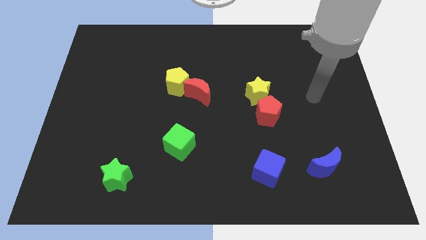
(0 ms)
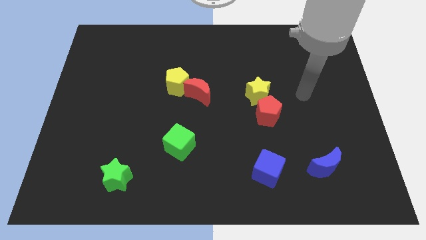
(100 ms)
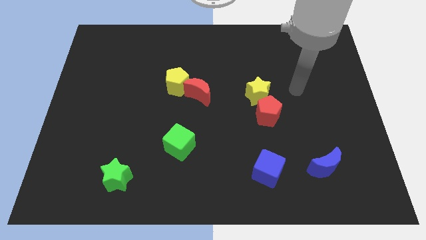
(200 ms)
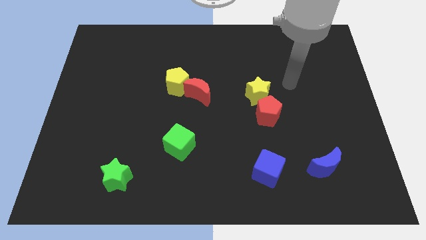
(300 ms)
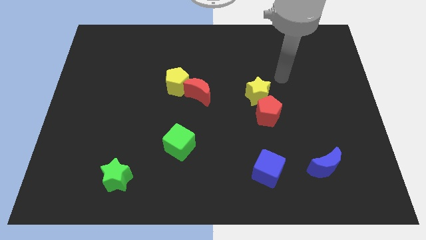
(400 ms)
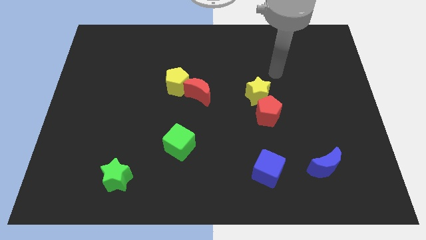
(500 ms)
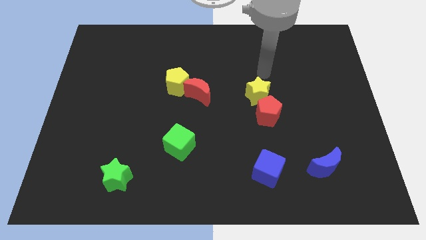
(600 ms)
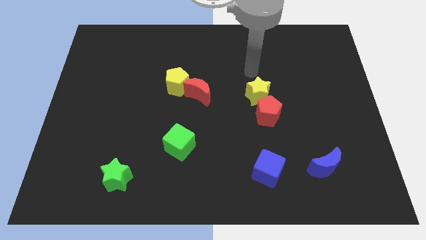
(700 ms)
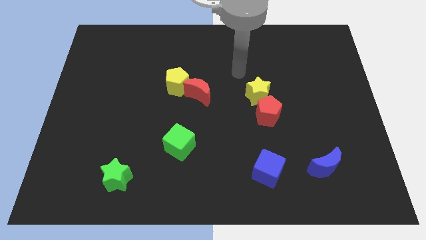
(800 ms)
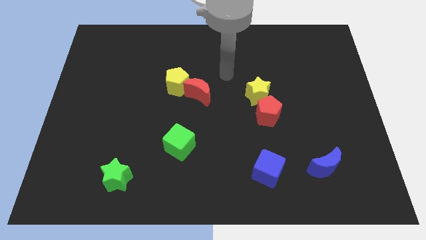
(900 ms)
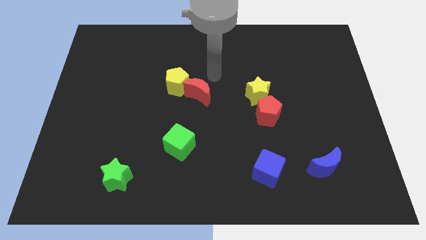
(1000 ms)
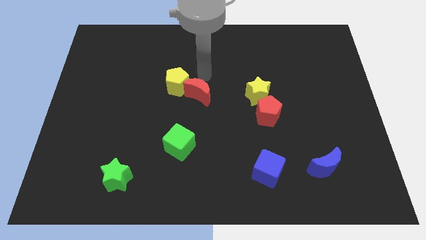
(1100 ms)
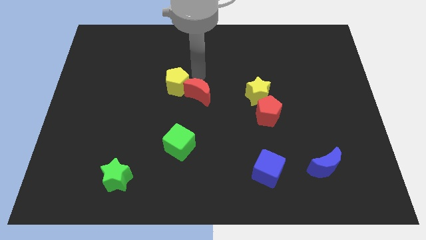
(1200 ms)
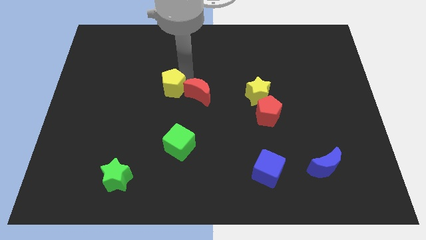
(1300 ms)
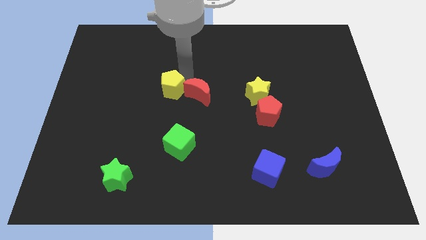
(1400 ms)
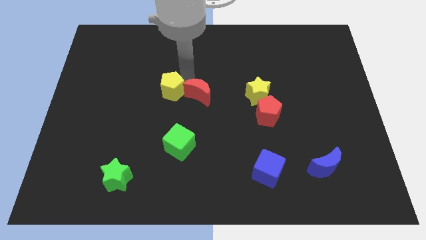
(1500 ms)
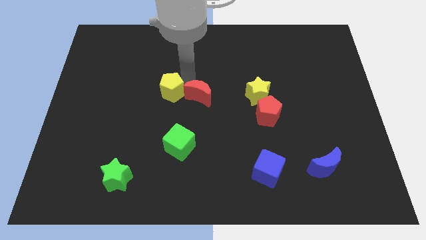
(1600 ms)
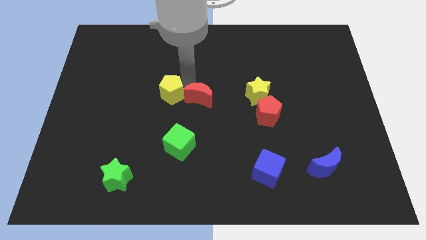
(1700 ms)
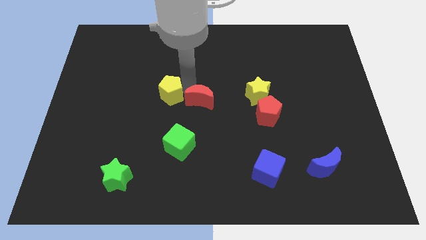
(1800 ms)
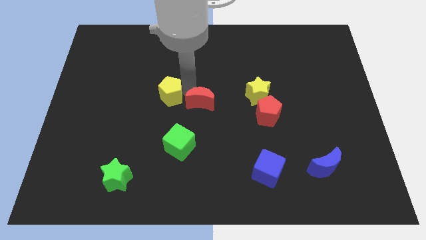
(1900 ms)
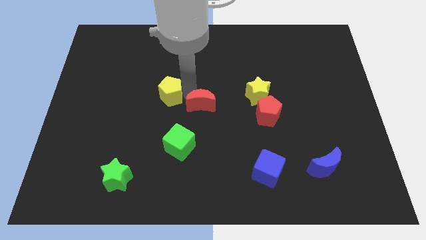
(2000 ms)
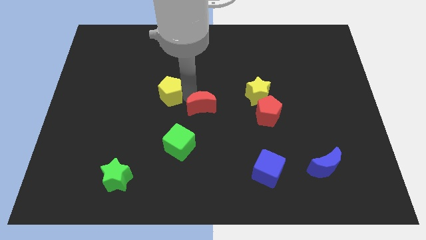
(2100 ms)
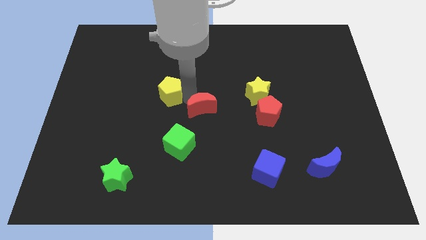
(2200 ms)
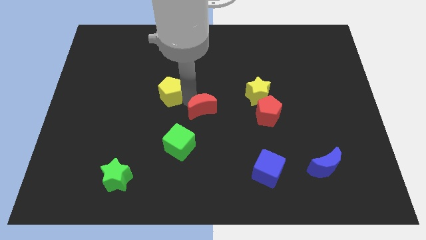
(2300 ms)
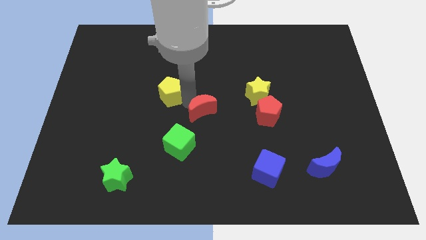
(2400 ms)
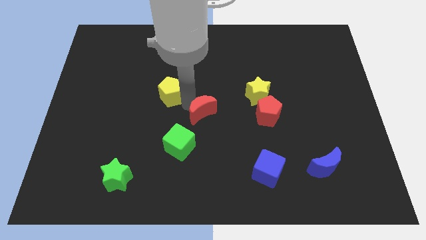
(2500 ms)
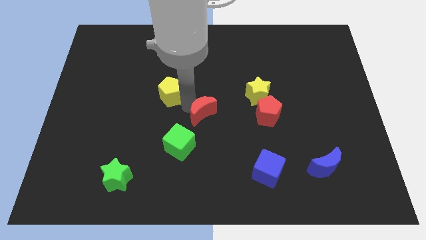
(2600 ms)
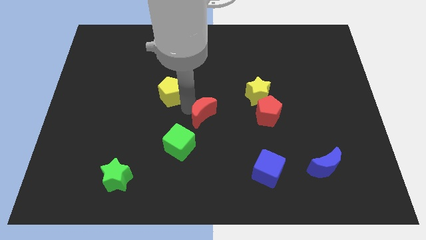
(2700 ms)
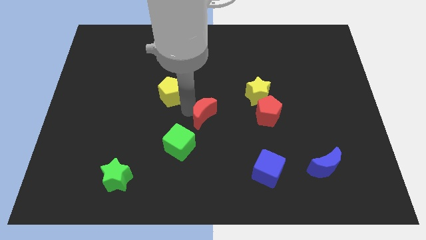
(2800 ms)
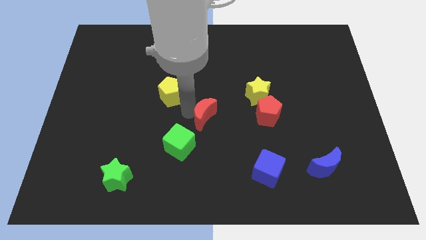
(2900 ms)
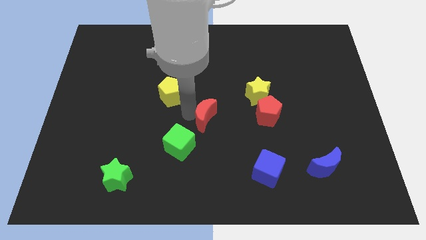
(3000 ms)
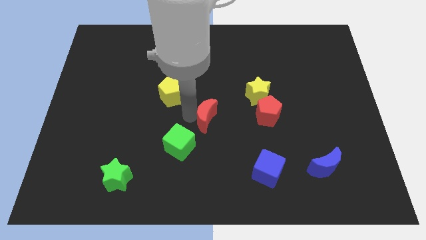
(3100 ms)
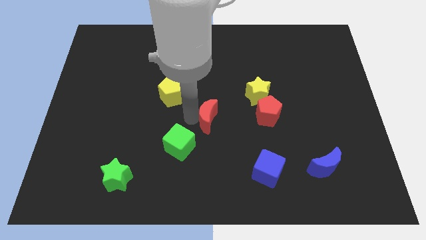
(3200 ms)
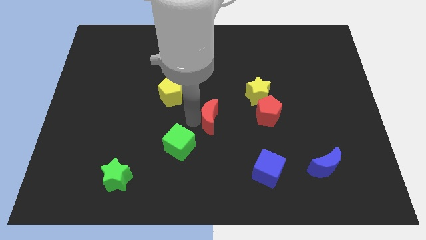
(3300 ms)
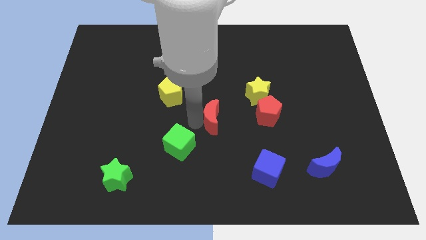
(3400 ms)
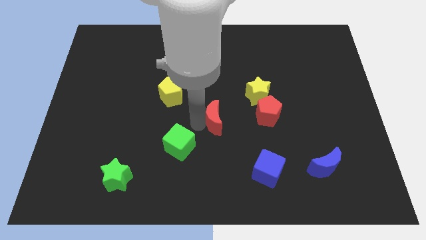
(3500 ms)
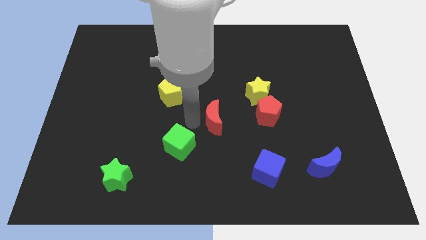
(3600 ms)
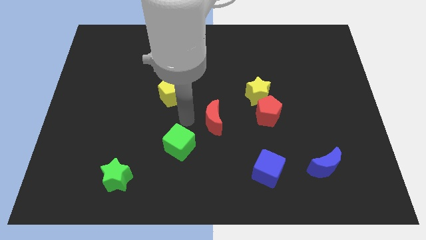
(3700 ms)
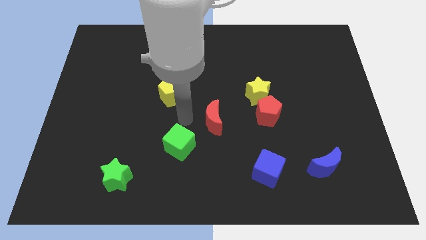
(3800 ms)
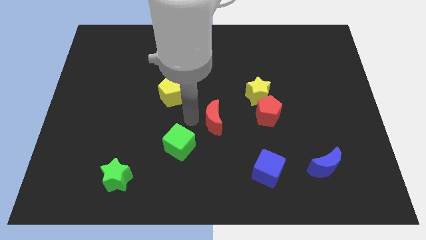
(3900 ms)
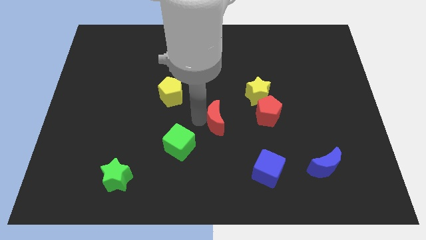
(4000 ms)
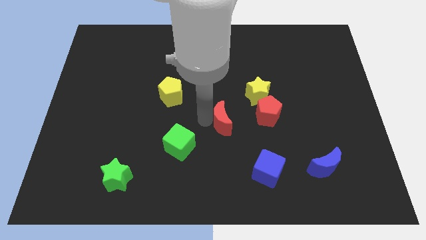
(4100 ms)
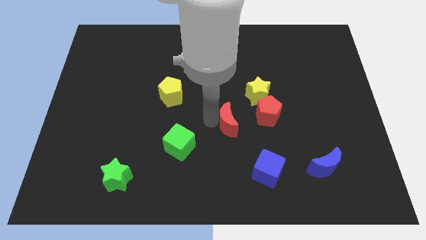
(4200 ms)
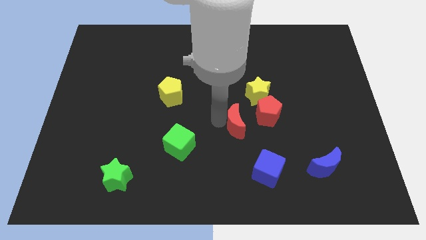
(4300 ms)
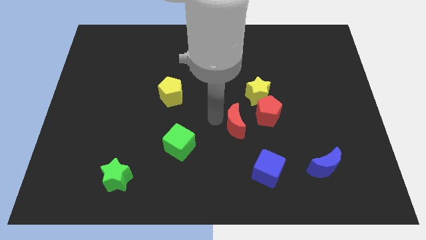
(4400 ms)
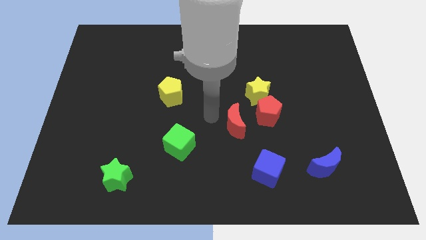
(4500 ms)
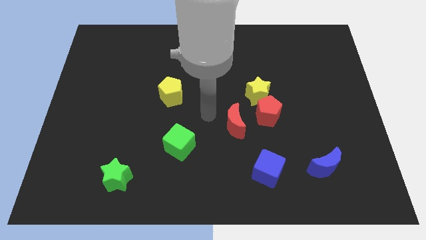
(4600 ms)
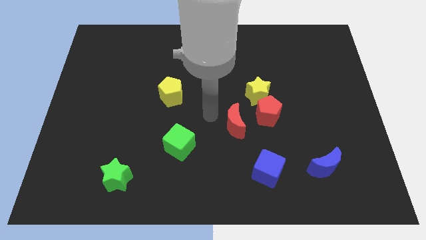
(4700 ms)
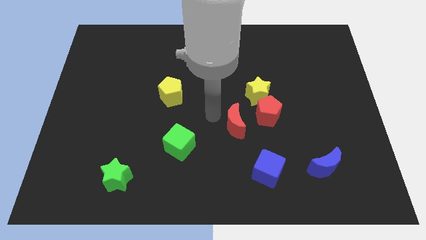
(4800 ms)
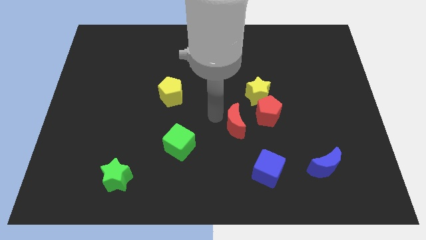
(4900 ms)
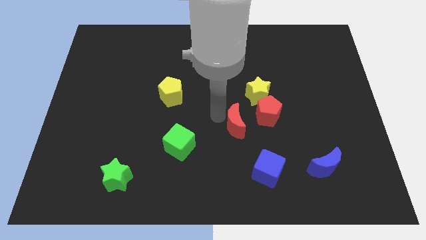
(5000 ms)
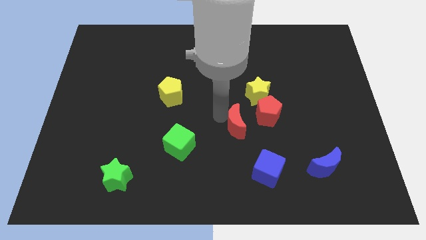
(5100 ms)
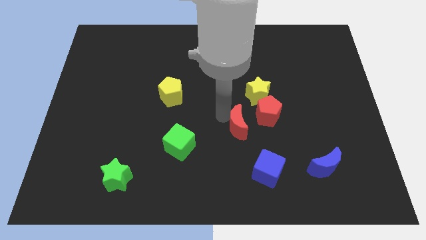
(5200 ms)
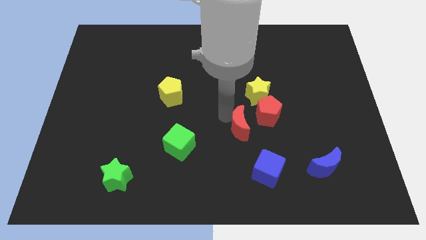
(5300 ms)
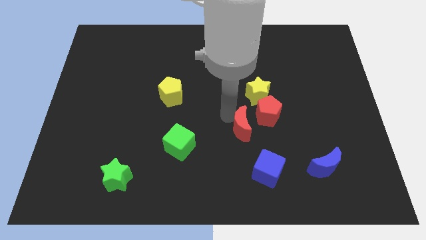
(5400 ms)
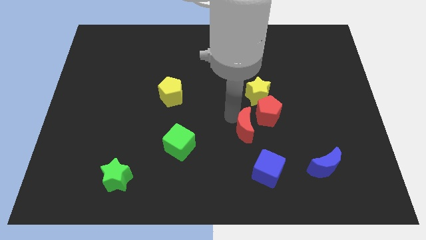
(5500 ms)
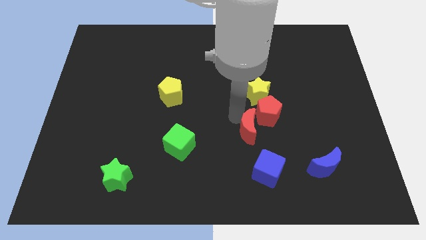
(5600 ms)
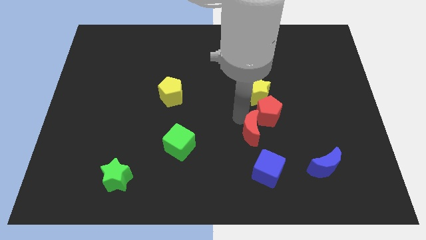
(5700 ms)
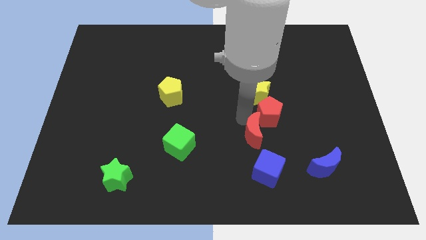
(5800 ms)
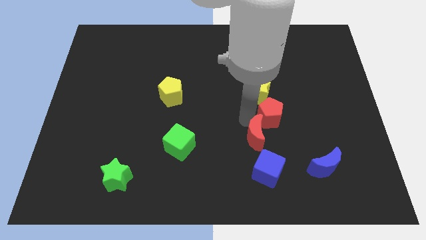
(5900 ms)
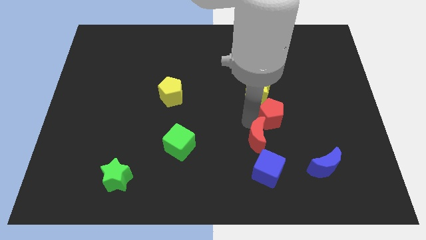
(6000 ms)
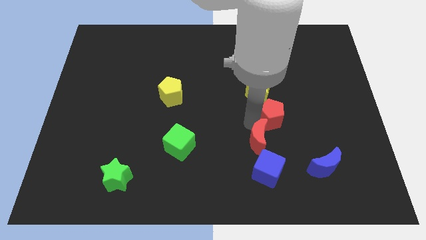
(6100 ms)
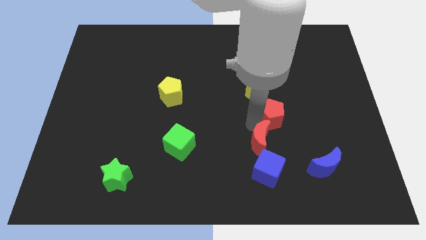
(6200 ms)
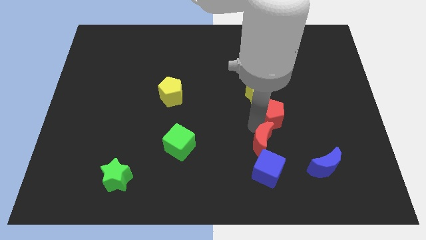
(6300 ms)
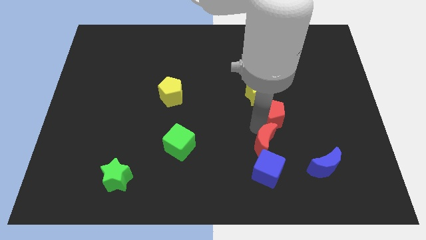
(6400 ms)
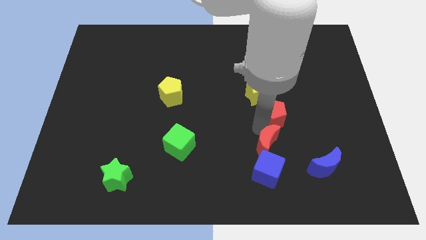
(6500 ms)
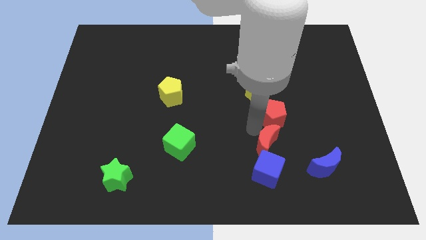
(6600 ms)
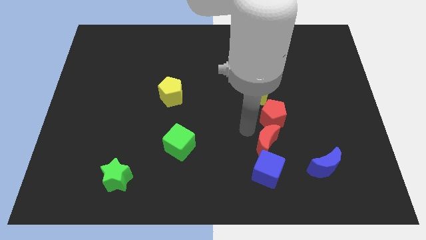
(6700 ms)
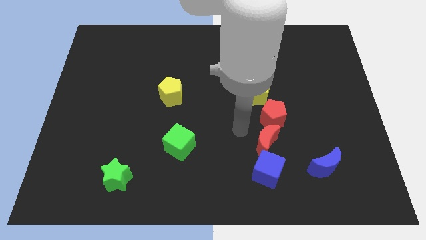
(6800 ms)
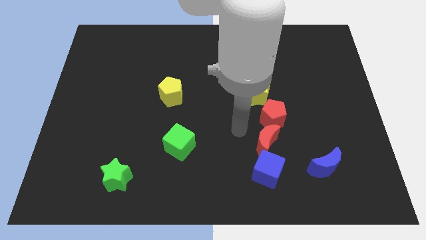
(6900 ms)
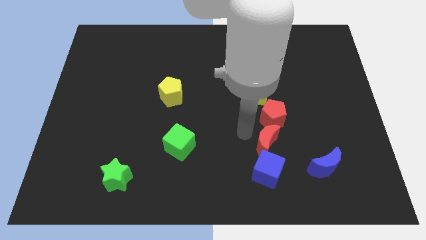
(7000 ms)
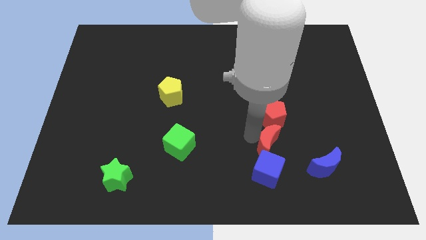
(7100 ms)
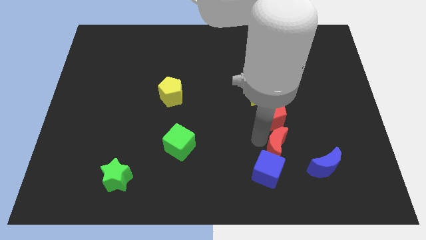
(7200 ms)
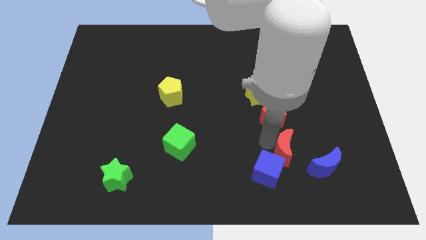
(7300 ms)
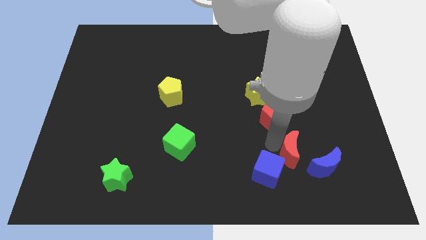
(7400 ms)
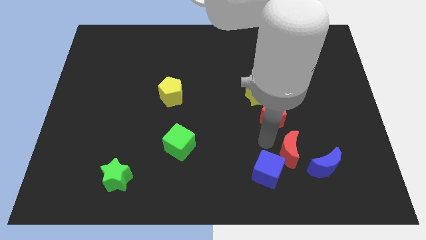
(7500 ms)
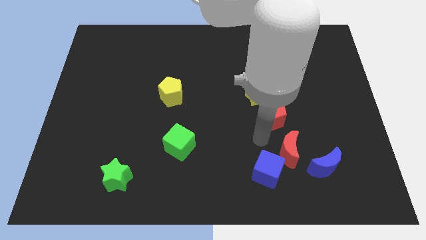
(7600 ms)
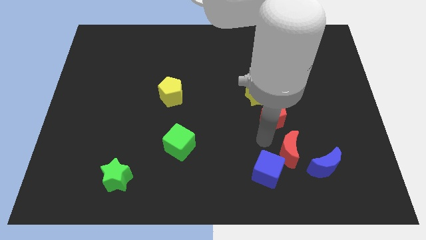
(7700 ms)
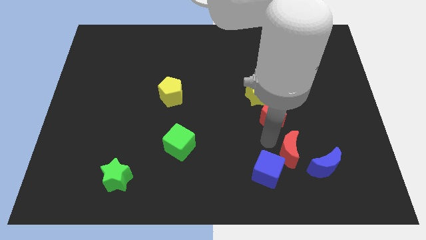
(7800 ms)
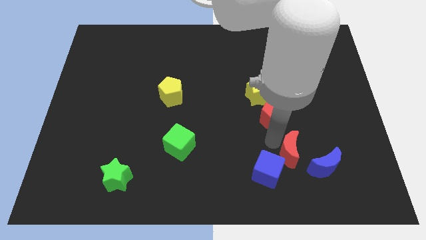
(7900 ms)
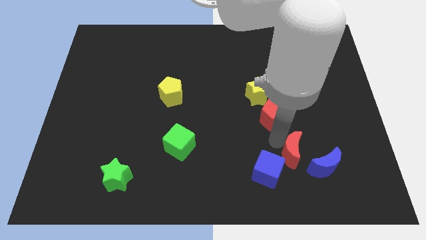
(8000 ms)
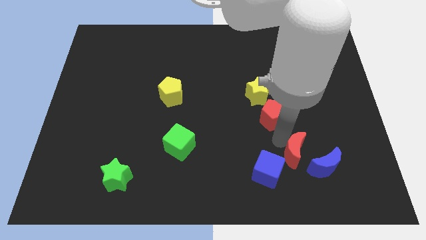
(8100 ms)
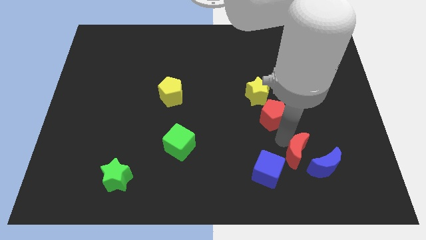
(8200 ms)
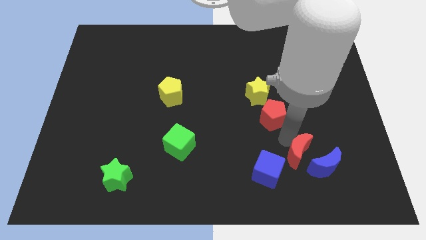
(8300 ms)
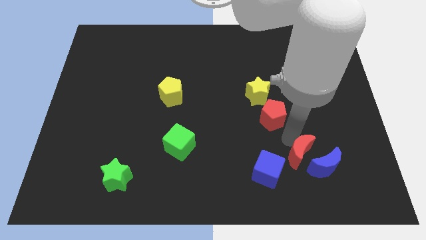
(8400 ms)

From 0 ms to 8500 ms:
put the red moon towards the blue moon
